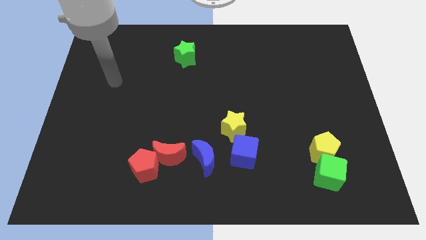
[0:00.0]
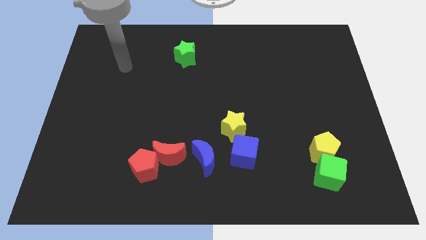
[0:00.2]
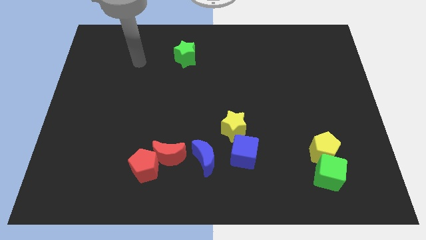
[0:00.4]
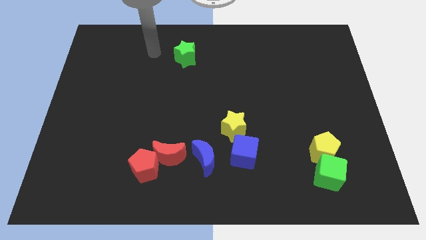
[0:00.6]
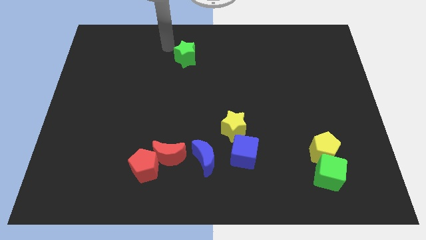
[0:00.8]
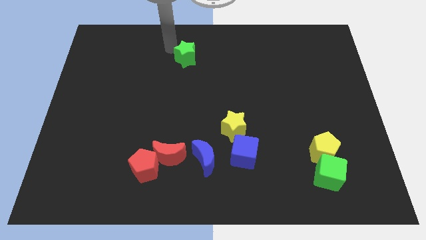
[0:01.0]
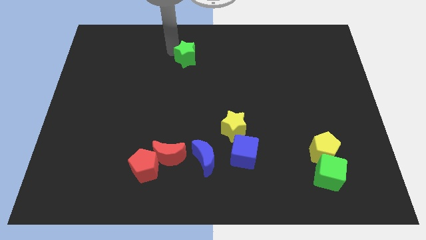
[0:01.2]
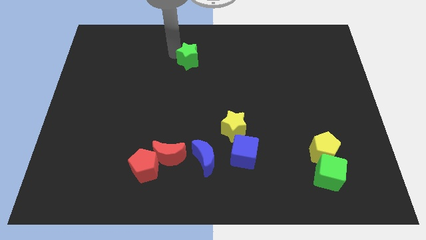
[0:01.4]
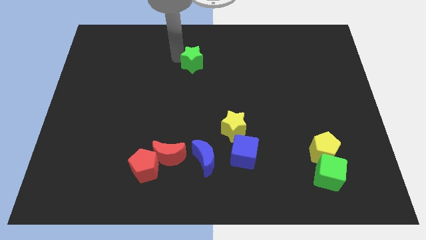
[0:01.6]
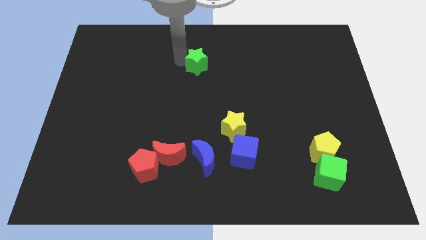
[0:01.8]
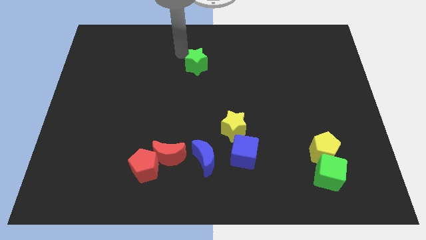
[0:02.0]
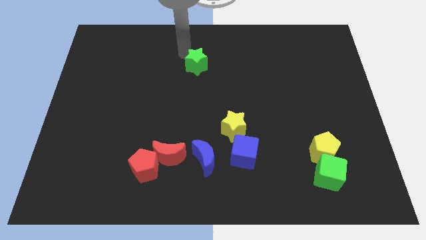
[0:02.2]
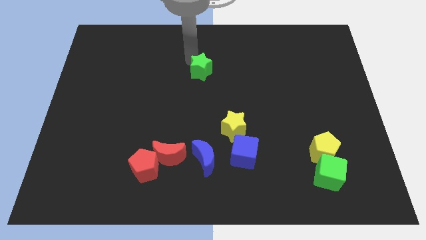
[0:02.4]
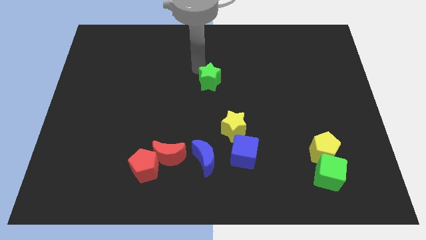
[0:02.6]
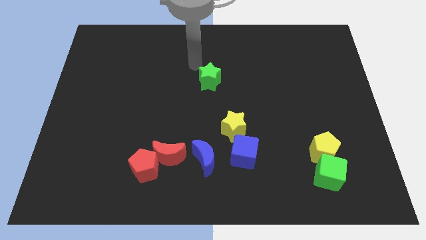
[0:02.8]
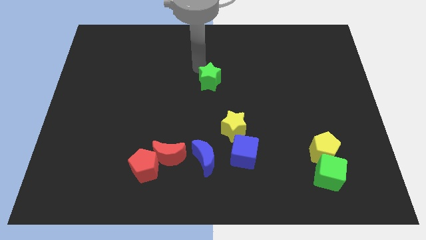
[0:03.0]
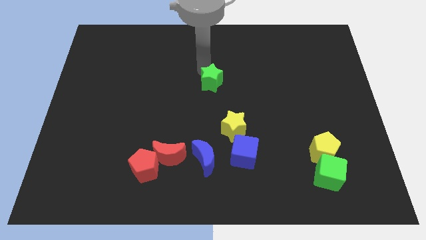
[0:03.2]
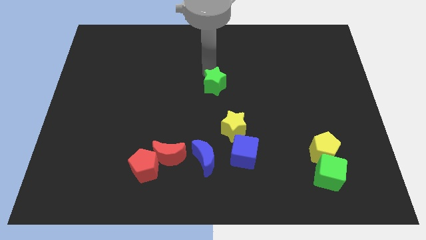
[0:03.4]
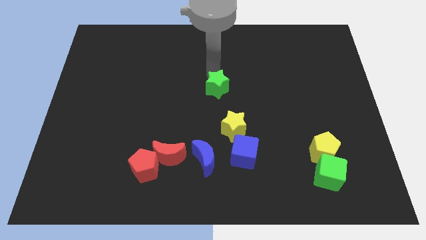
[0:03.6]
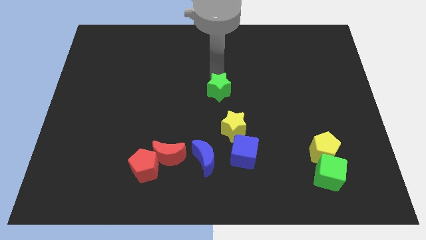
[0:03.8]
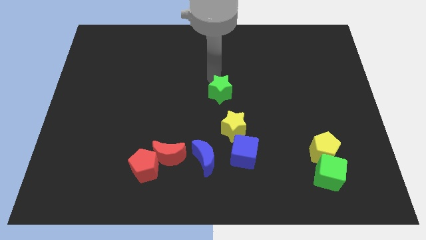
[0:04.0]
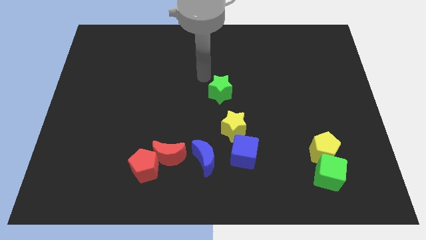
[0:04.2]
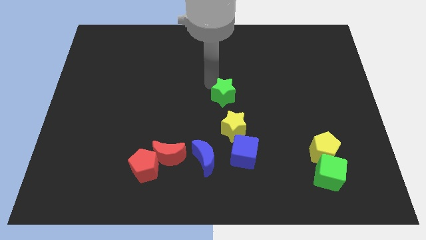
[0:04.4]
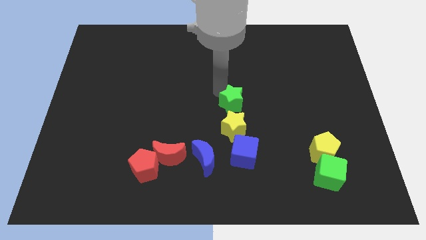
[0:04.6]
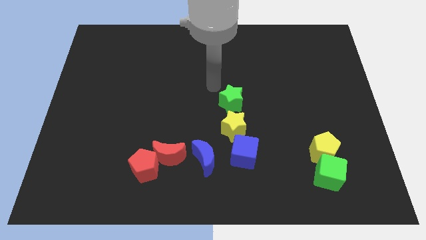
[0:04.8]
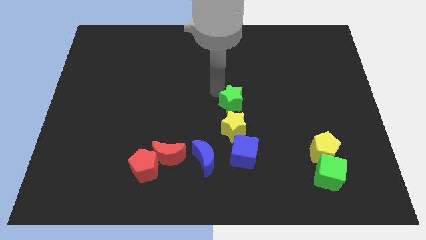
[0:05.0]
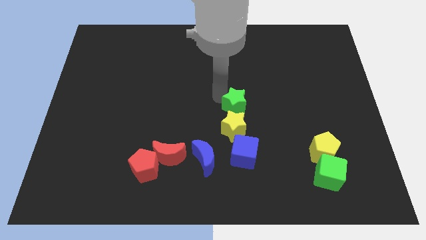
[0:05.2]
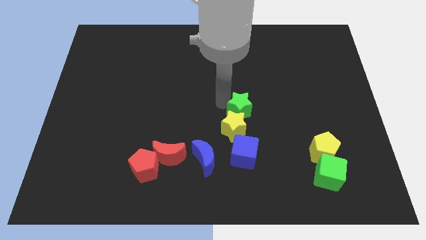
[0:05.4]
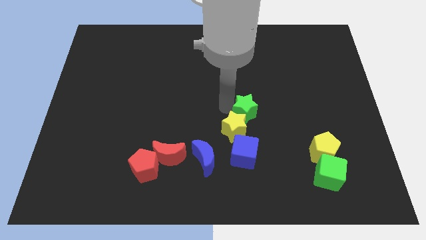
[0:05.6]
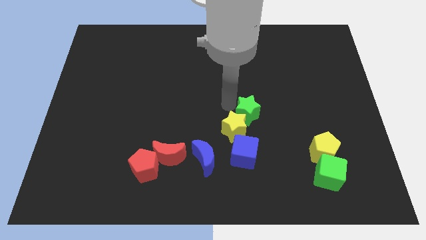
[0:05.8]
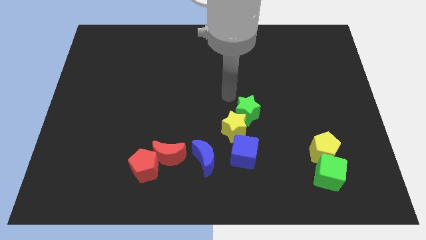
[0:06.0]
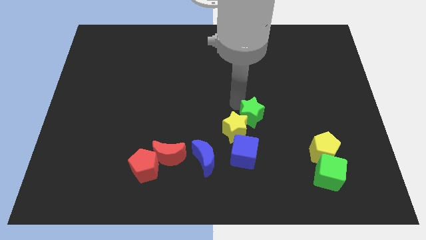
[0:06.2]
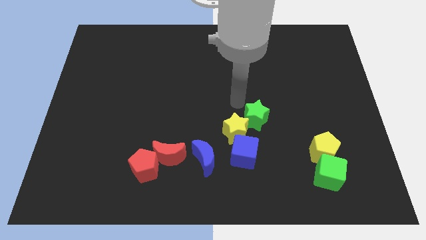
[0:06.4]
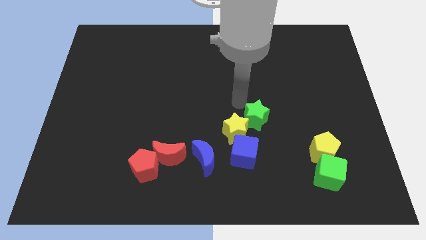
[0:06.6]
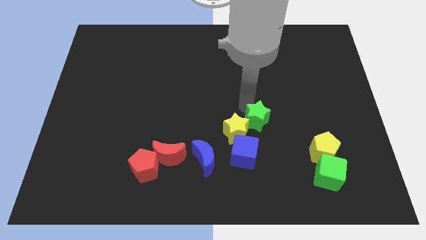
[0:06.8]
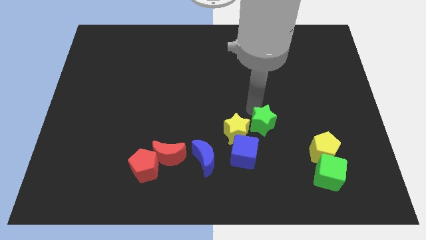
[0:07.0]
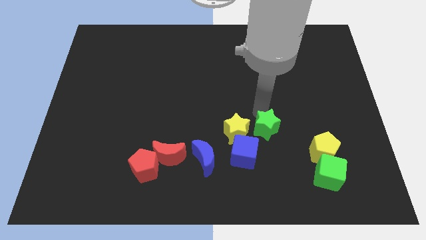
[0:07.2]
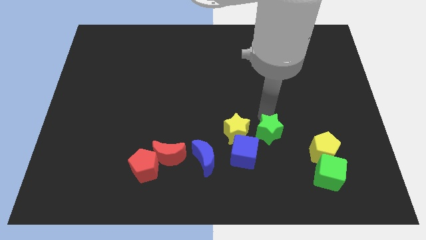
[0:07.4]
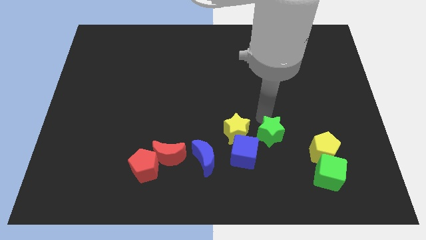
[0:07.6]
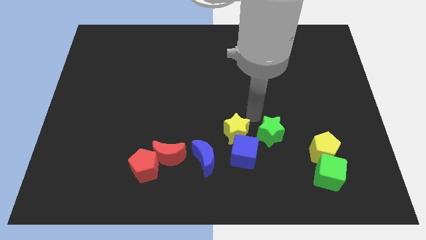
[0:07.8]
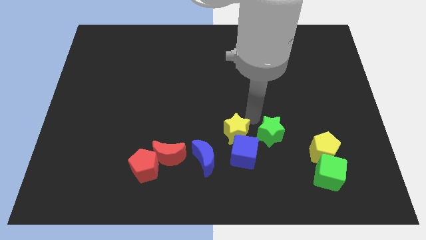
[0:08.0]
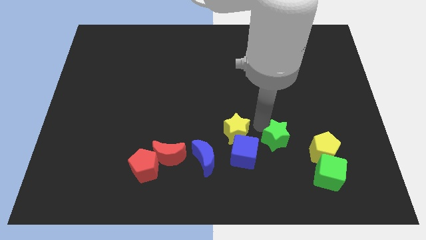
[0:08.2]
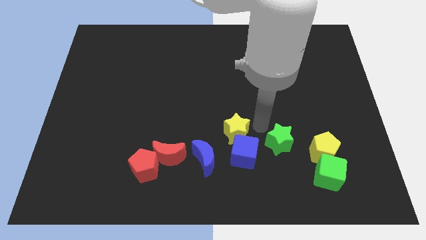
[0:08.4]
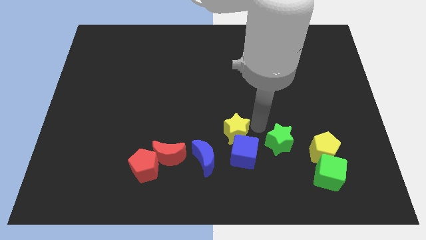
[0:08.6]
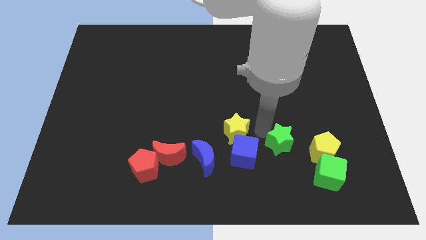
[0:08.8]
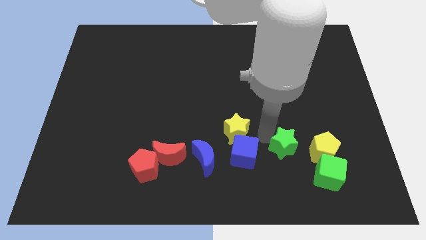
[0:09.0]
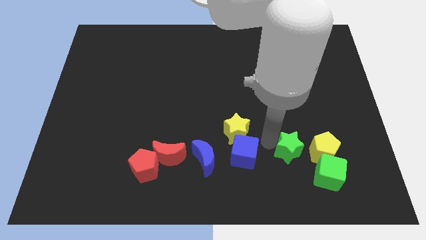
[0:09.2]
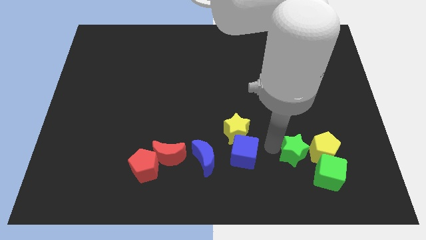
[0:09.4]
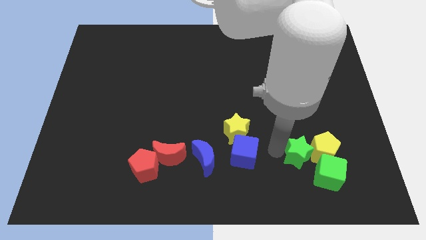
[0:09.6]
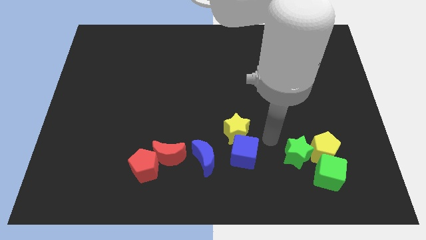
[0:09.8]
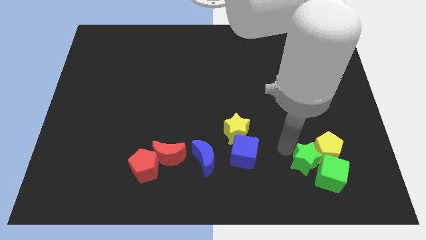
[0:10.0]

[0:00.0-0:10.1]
slide the green star towards the green cube

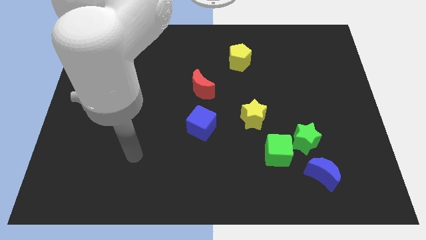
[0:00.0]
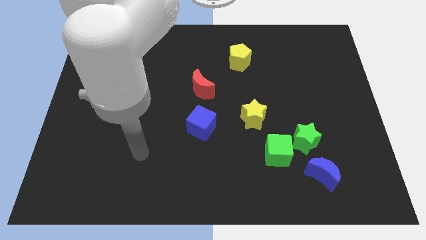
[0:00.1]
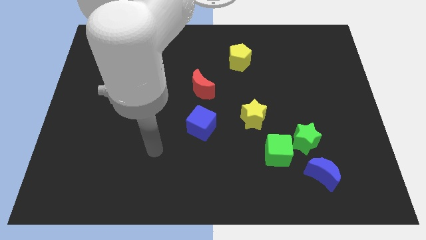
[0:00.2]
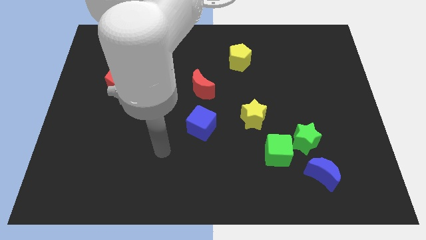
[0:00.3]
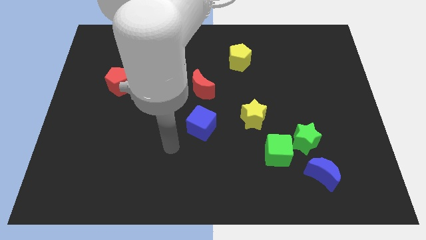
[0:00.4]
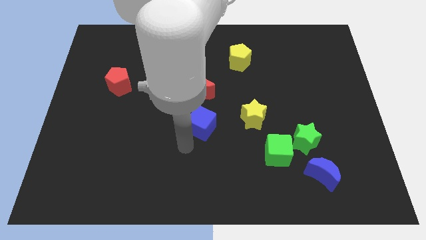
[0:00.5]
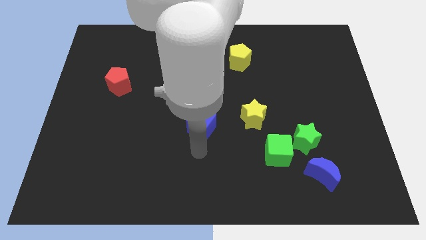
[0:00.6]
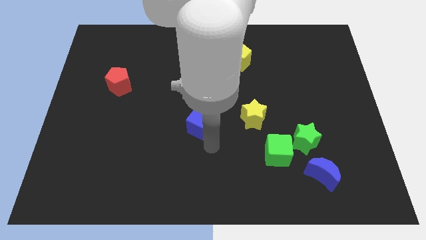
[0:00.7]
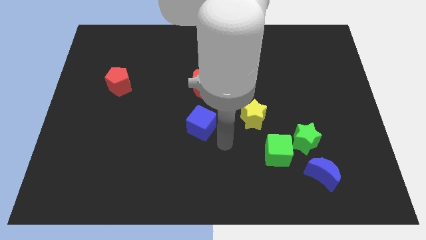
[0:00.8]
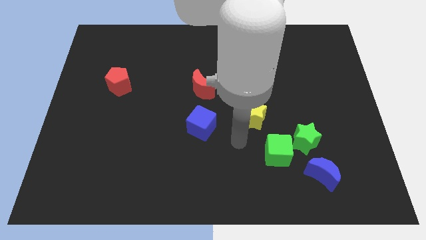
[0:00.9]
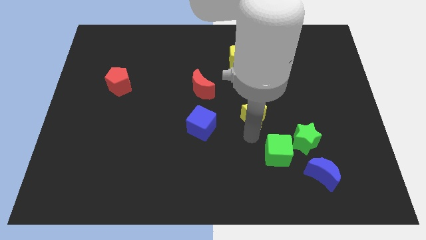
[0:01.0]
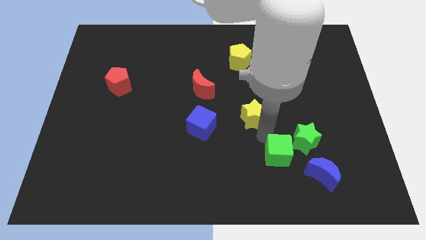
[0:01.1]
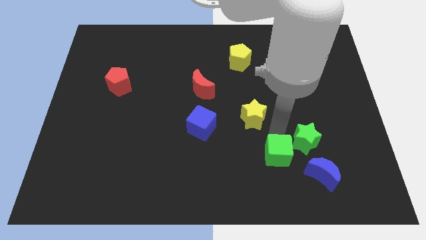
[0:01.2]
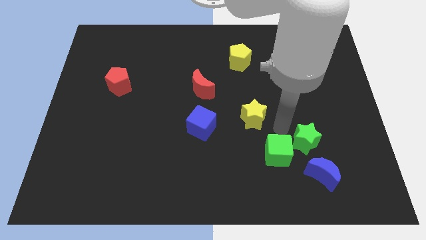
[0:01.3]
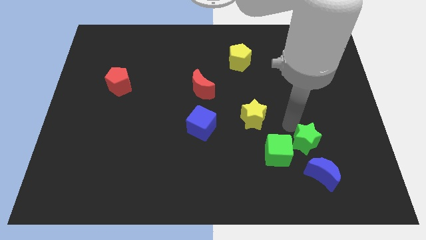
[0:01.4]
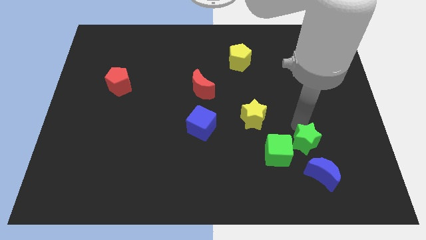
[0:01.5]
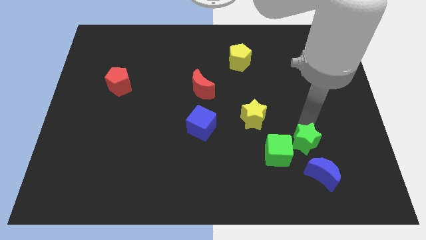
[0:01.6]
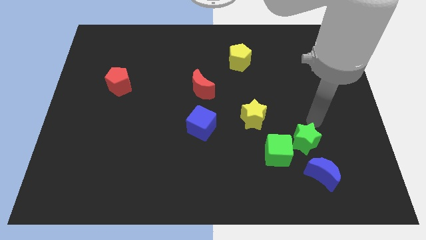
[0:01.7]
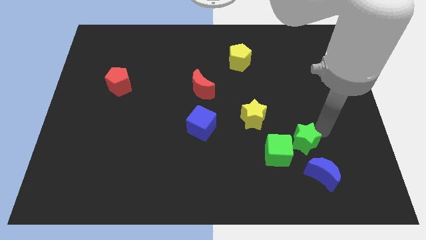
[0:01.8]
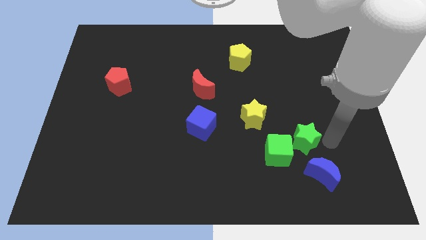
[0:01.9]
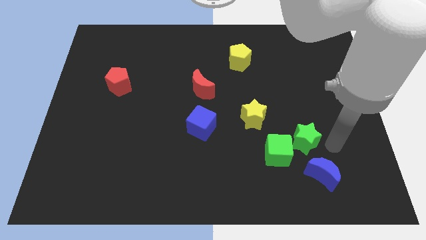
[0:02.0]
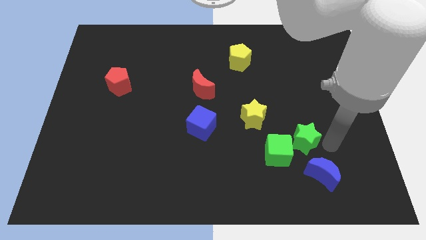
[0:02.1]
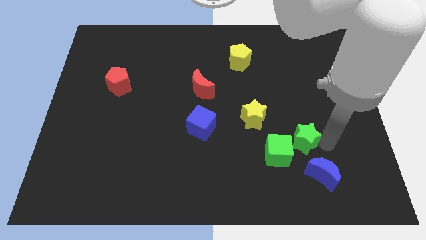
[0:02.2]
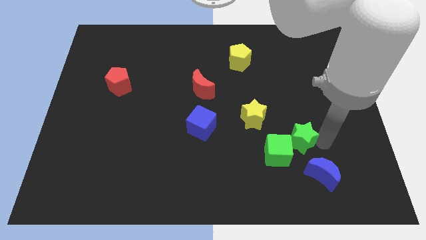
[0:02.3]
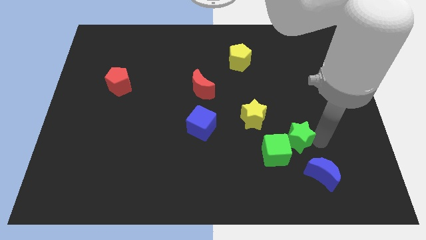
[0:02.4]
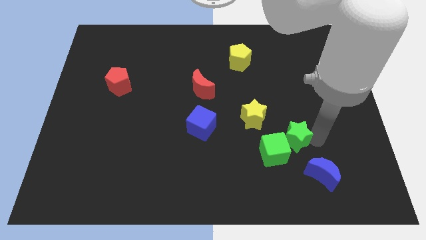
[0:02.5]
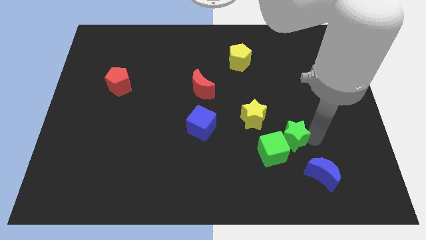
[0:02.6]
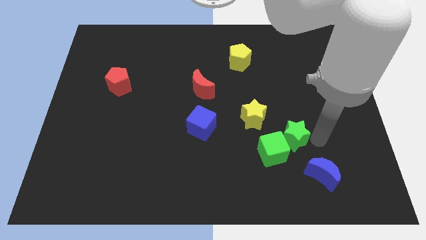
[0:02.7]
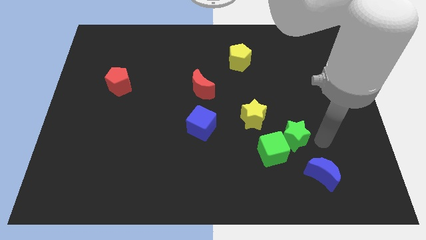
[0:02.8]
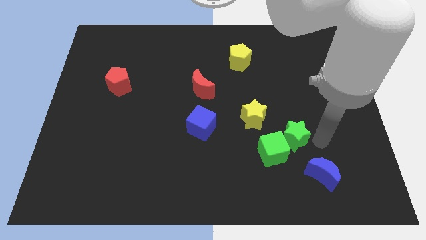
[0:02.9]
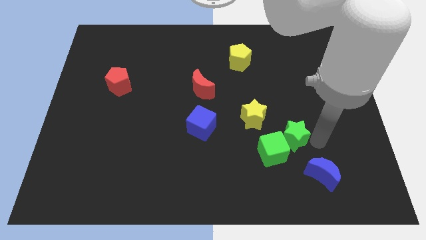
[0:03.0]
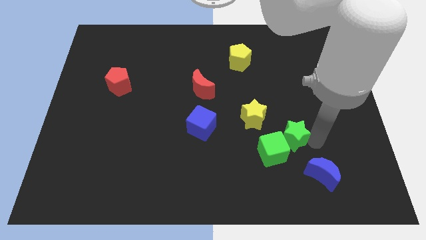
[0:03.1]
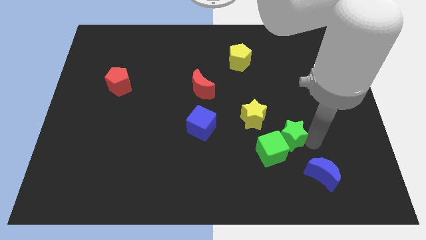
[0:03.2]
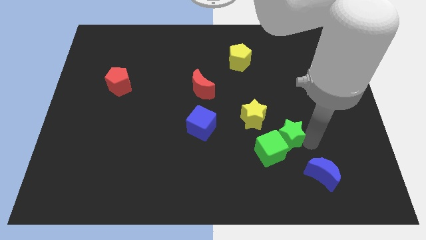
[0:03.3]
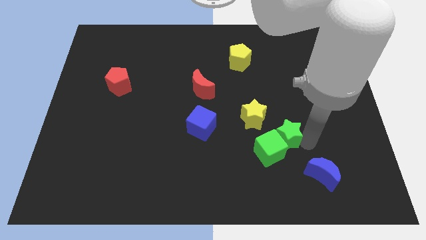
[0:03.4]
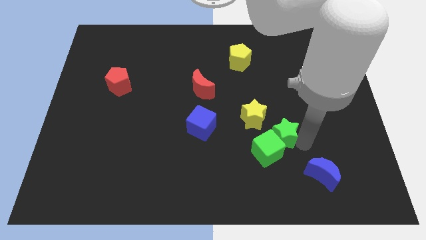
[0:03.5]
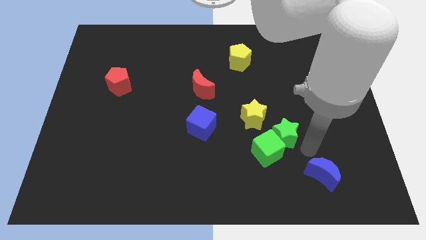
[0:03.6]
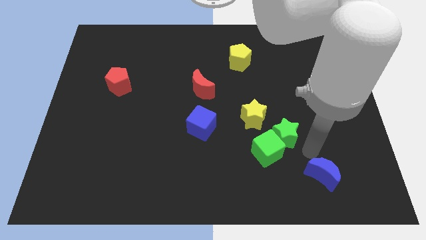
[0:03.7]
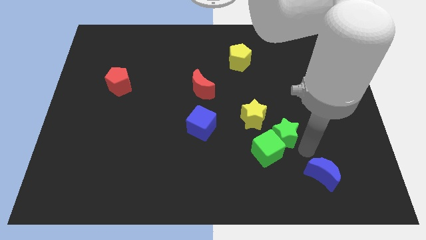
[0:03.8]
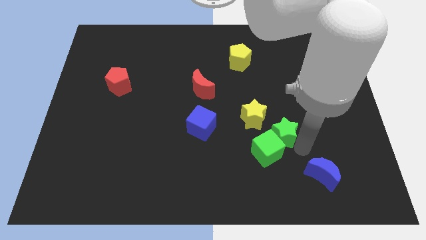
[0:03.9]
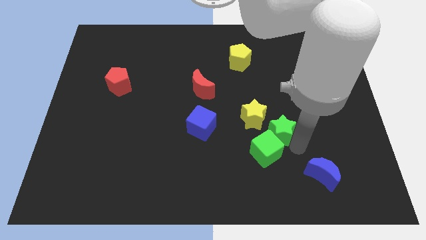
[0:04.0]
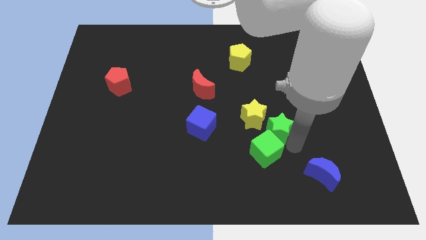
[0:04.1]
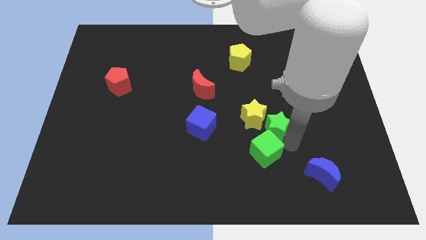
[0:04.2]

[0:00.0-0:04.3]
push the green star towards the yellow star
